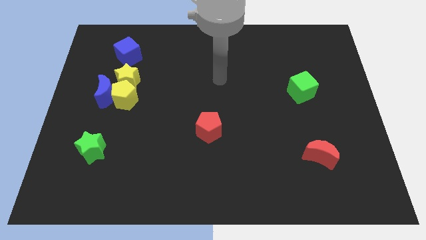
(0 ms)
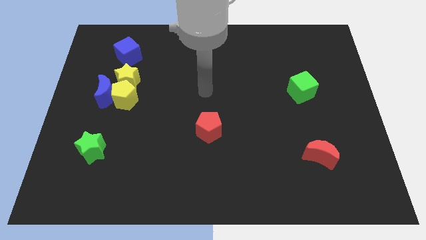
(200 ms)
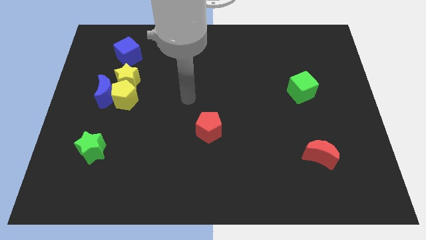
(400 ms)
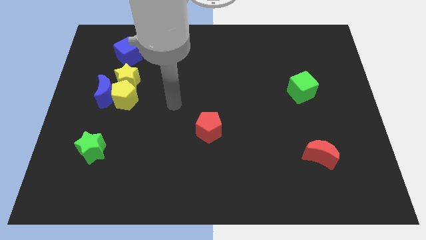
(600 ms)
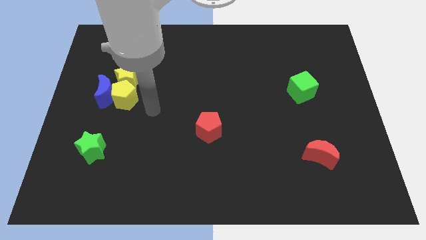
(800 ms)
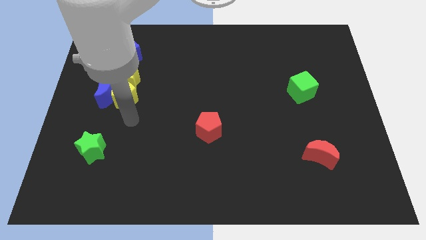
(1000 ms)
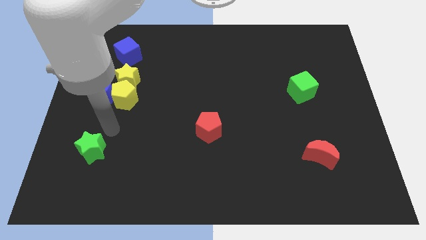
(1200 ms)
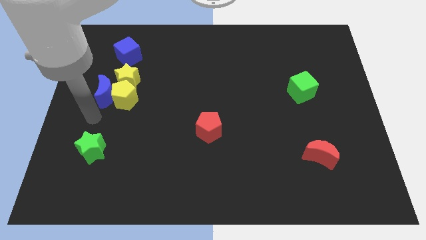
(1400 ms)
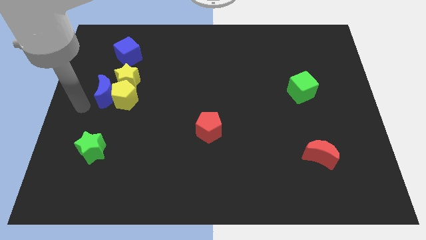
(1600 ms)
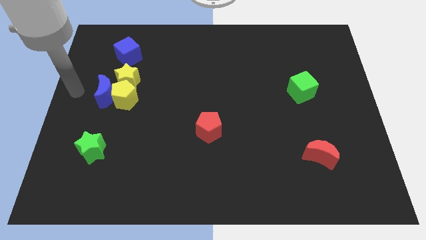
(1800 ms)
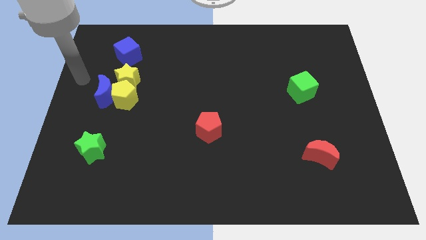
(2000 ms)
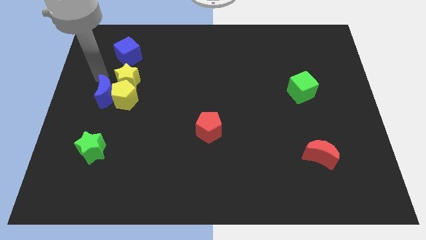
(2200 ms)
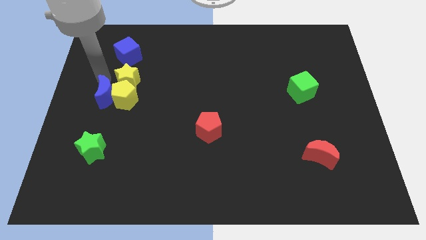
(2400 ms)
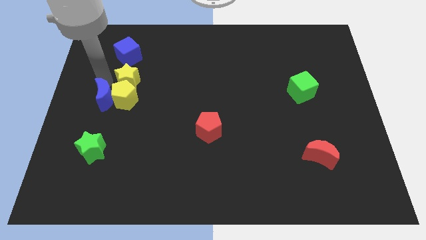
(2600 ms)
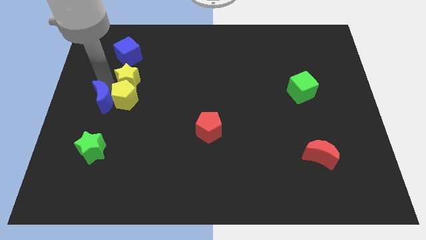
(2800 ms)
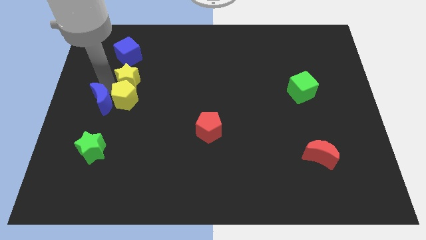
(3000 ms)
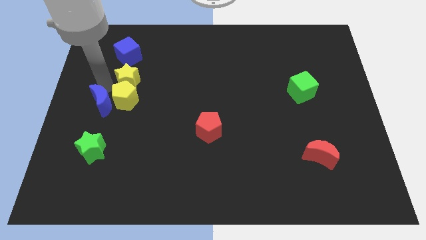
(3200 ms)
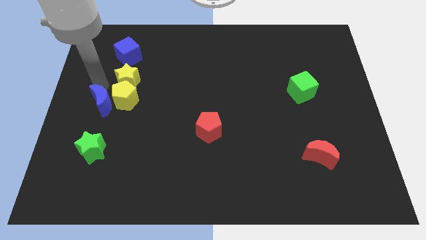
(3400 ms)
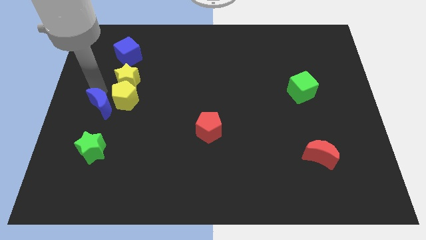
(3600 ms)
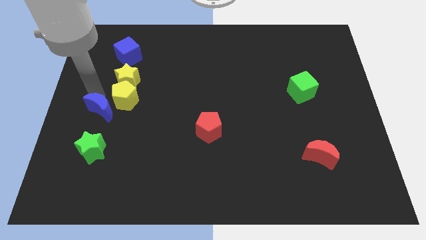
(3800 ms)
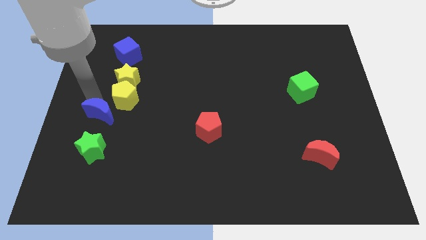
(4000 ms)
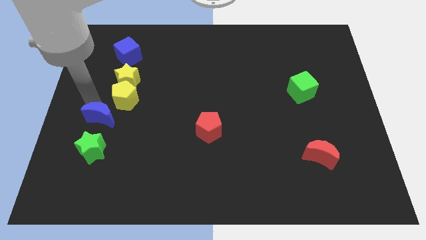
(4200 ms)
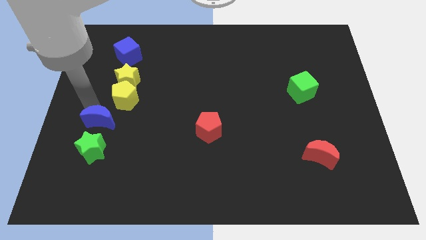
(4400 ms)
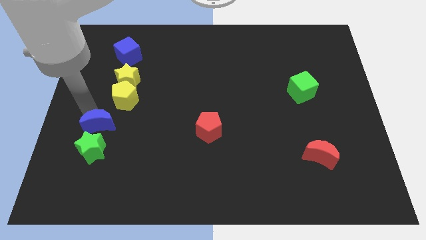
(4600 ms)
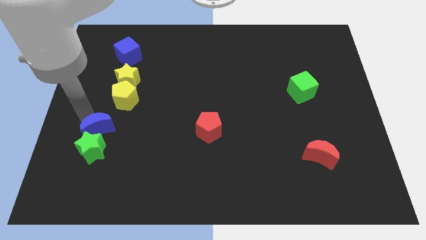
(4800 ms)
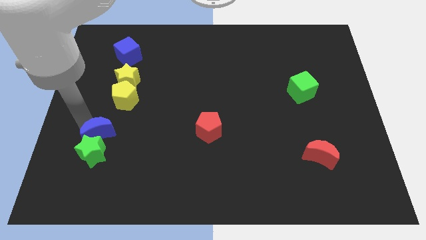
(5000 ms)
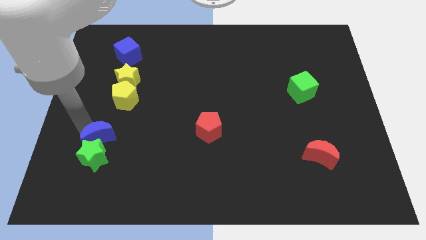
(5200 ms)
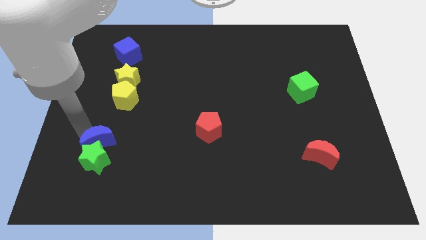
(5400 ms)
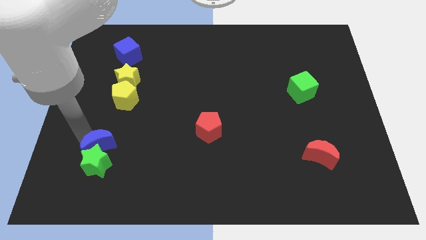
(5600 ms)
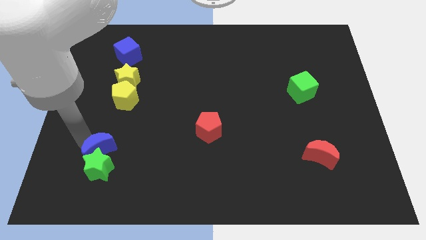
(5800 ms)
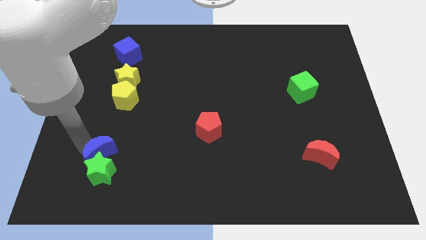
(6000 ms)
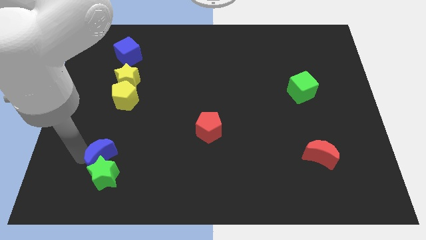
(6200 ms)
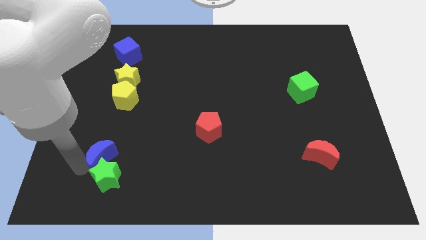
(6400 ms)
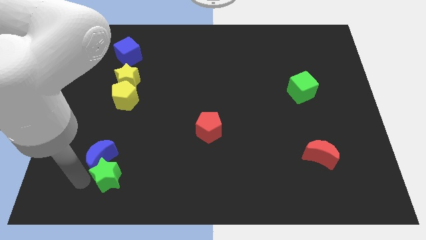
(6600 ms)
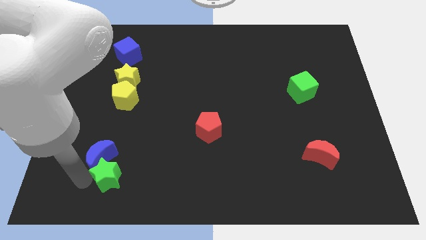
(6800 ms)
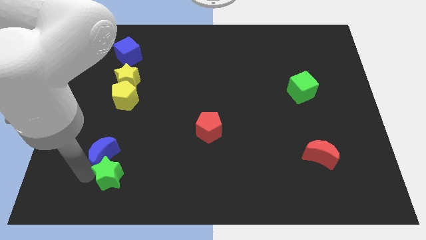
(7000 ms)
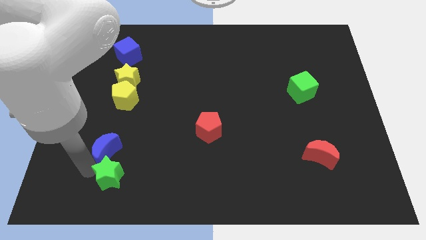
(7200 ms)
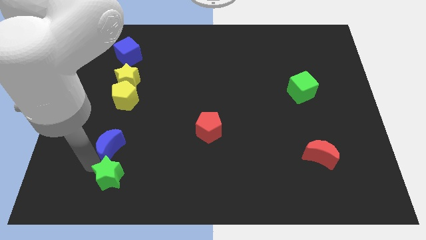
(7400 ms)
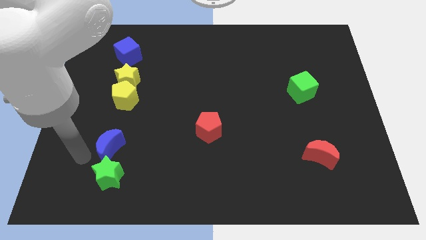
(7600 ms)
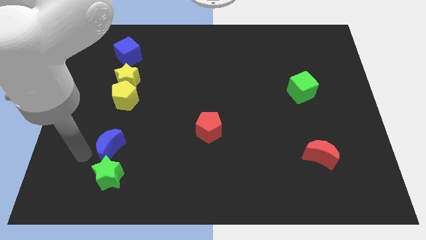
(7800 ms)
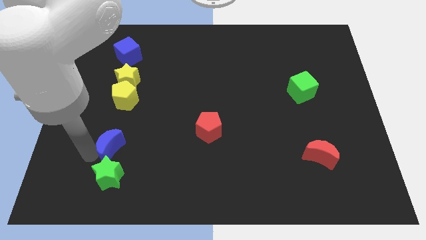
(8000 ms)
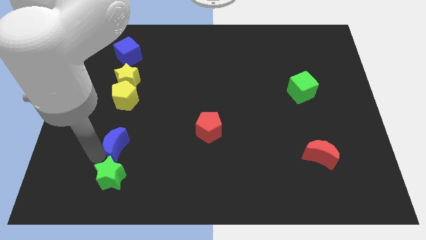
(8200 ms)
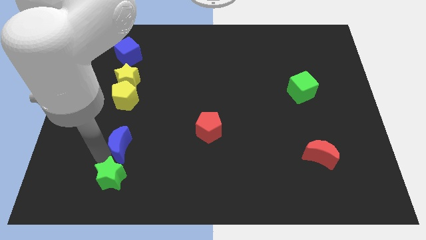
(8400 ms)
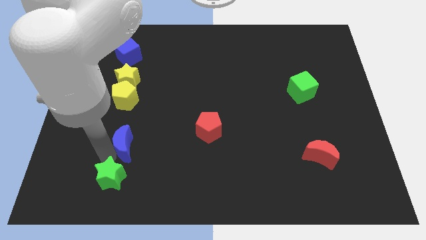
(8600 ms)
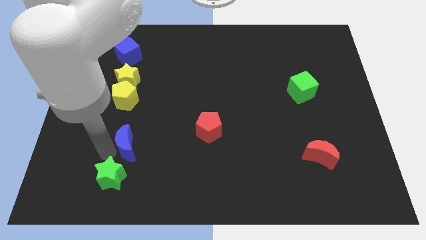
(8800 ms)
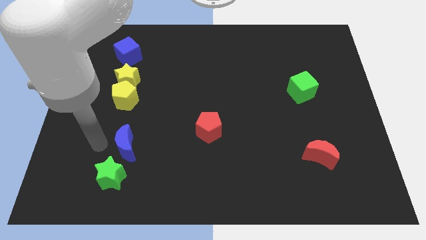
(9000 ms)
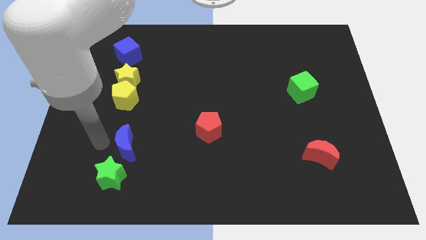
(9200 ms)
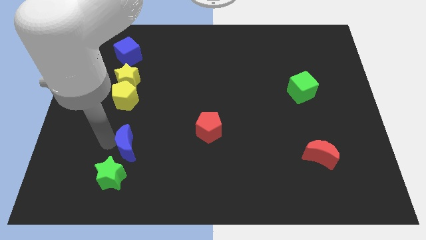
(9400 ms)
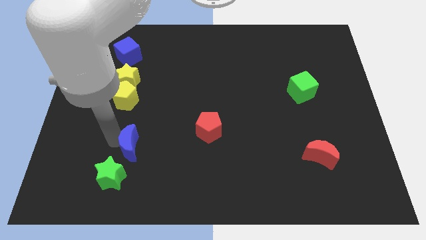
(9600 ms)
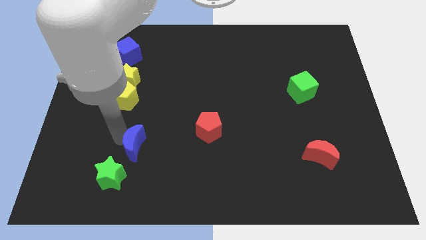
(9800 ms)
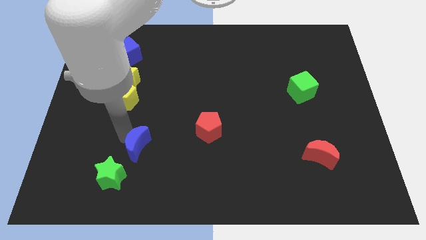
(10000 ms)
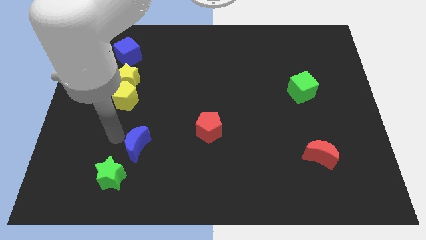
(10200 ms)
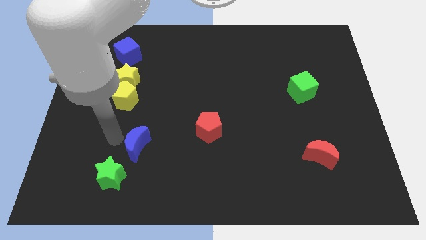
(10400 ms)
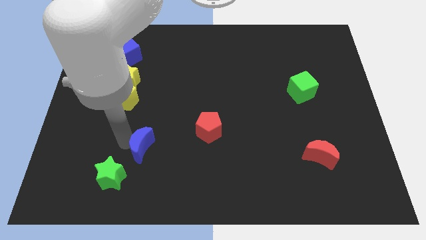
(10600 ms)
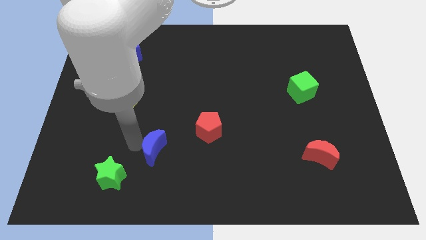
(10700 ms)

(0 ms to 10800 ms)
move the blue moon down and right

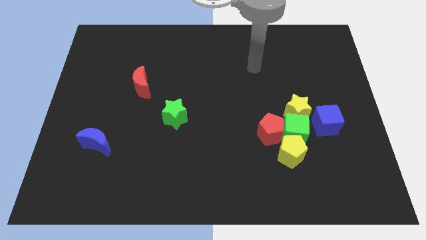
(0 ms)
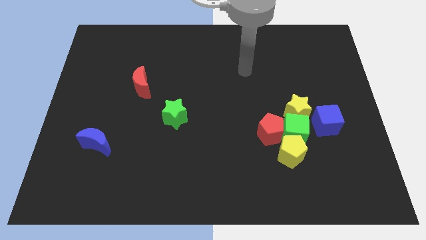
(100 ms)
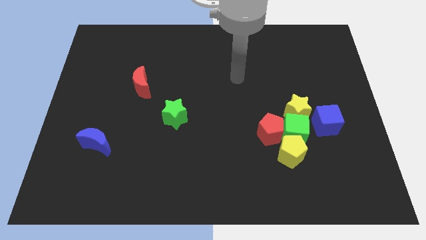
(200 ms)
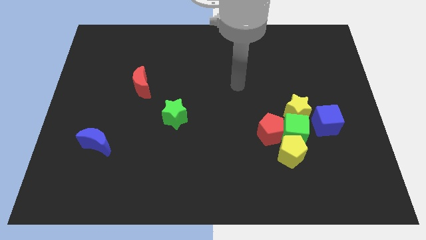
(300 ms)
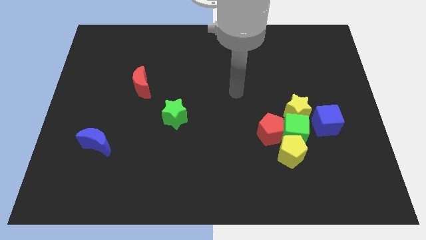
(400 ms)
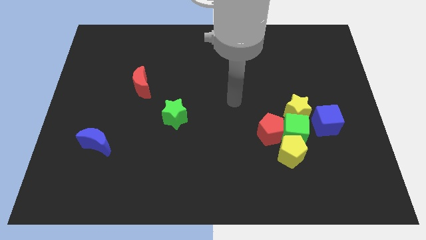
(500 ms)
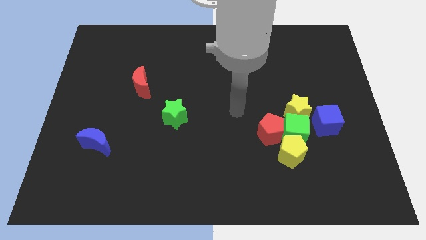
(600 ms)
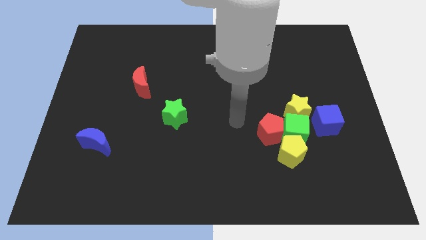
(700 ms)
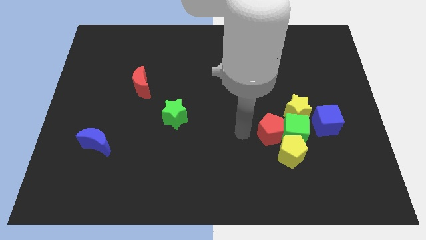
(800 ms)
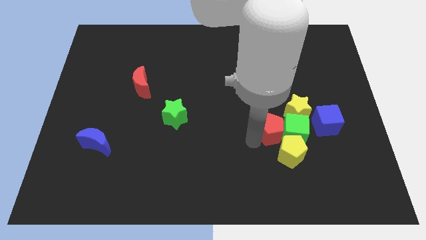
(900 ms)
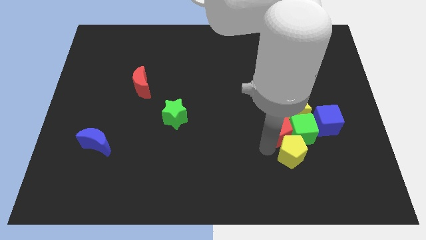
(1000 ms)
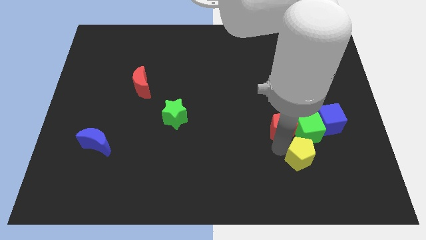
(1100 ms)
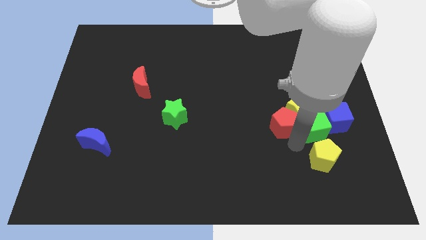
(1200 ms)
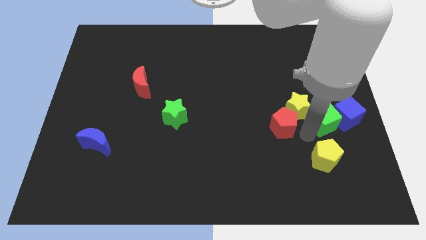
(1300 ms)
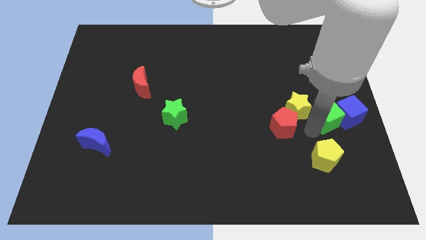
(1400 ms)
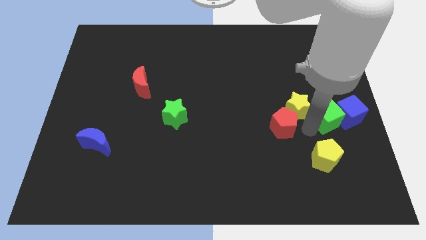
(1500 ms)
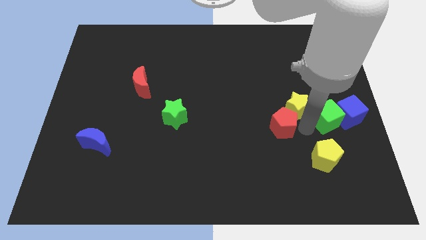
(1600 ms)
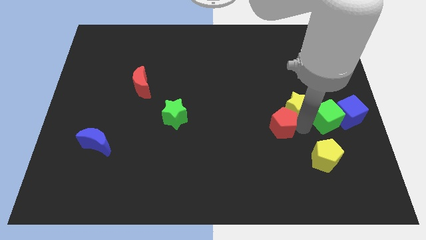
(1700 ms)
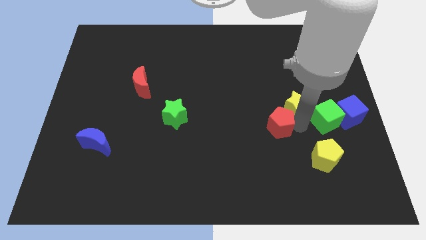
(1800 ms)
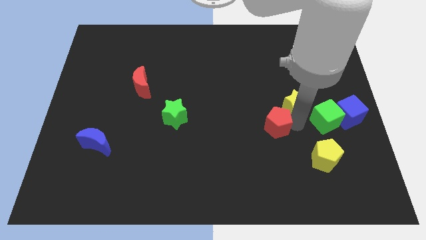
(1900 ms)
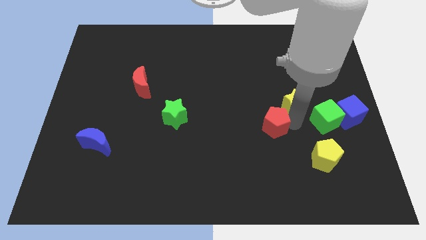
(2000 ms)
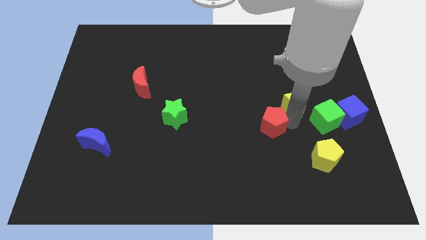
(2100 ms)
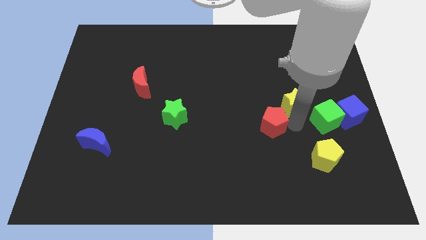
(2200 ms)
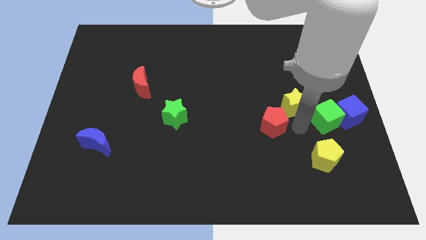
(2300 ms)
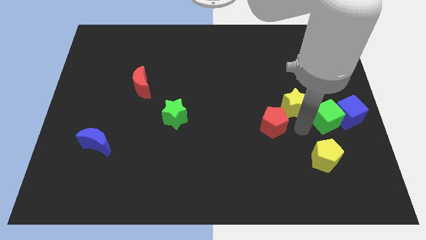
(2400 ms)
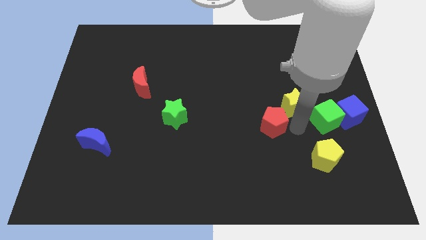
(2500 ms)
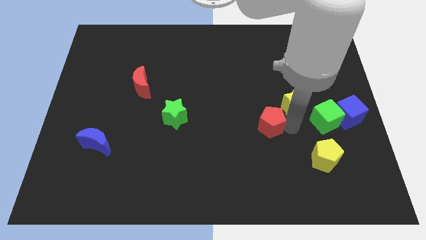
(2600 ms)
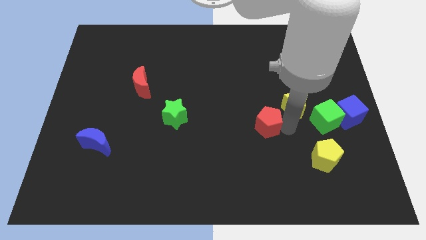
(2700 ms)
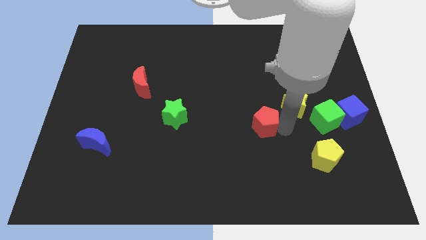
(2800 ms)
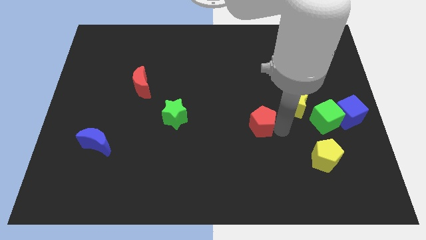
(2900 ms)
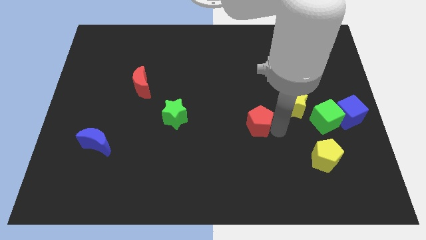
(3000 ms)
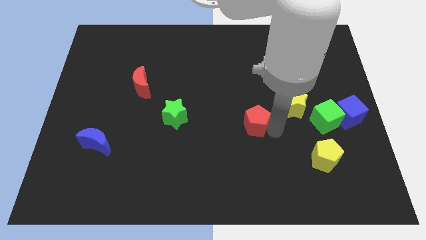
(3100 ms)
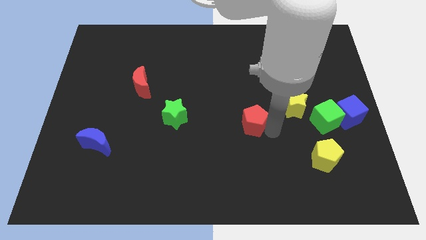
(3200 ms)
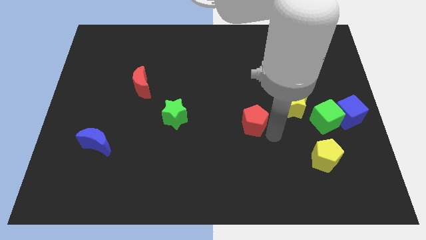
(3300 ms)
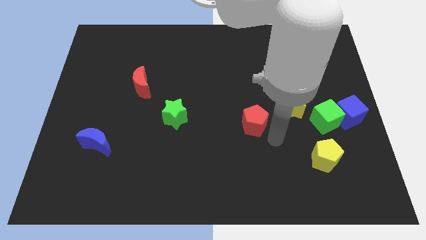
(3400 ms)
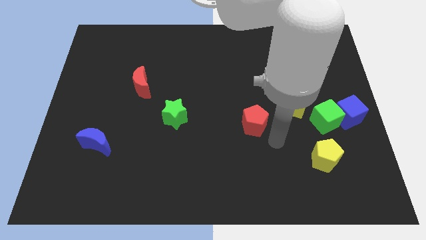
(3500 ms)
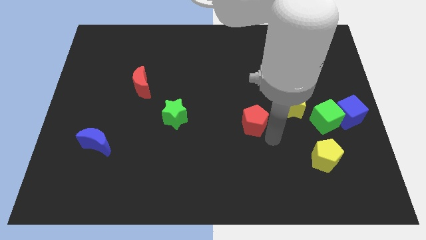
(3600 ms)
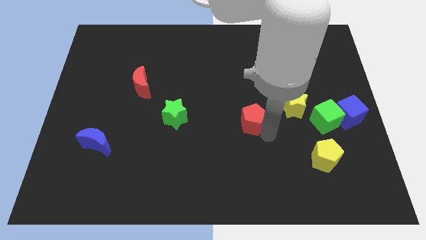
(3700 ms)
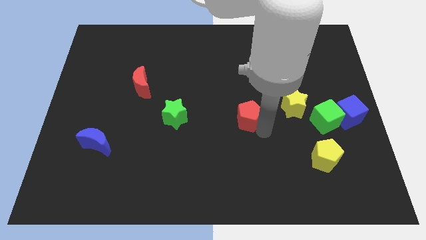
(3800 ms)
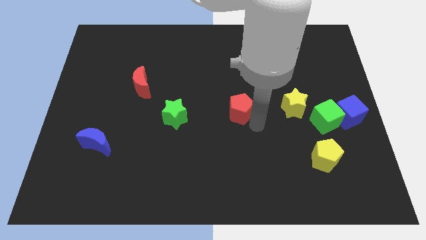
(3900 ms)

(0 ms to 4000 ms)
move the red pentagon diagonally up and left a bit
